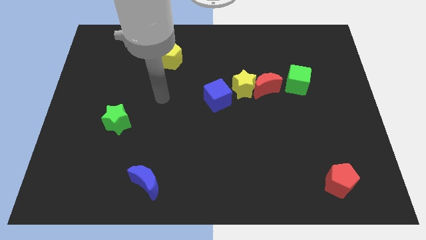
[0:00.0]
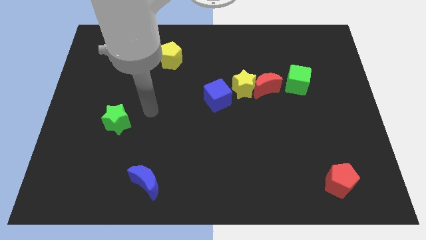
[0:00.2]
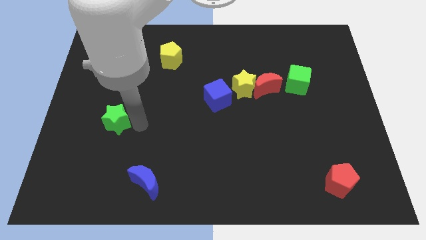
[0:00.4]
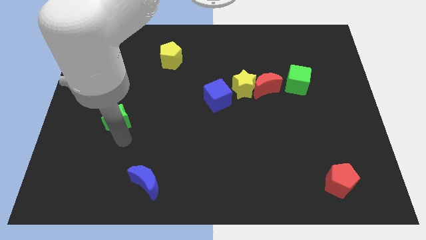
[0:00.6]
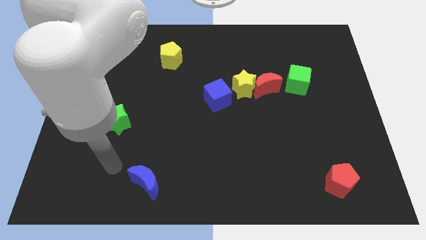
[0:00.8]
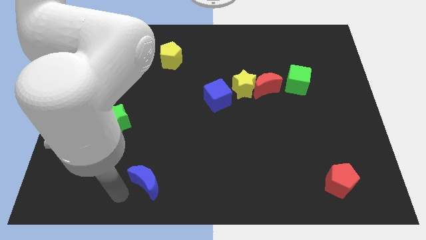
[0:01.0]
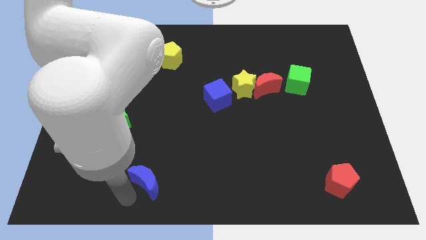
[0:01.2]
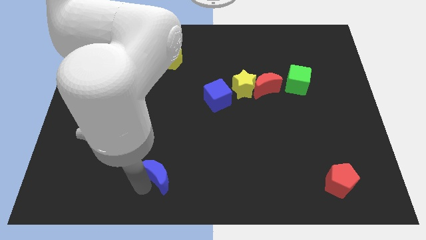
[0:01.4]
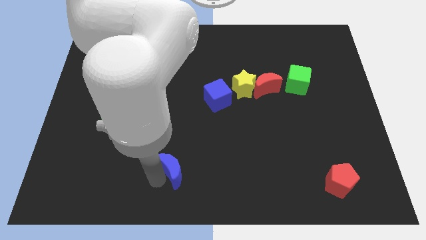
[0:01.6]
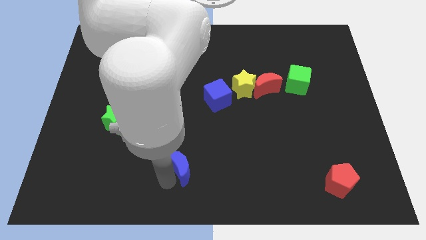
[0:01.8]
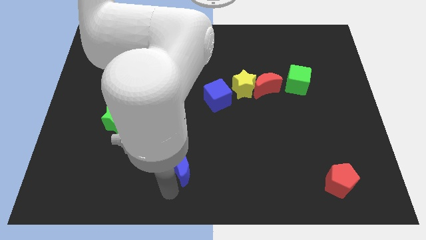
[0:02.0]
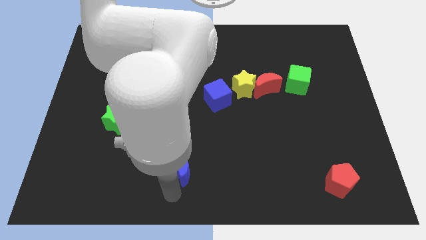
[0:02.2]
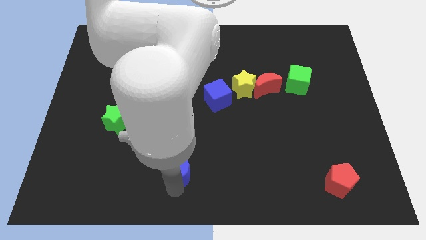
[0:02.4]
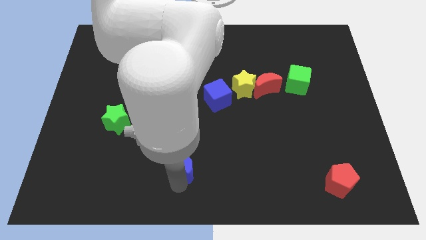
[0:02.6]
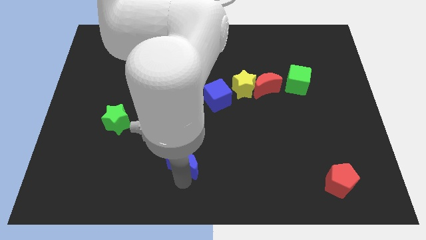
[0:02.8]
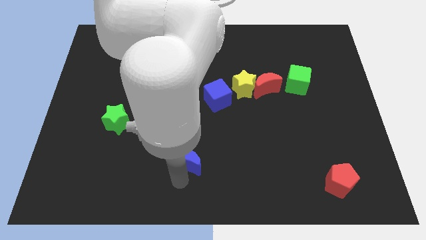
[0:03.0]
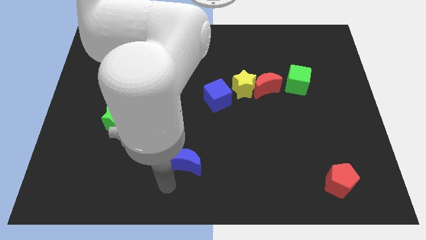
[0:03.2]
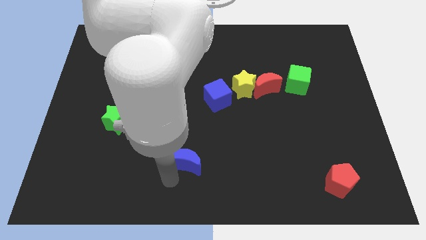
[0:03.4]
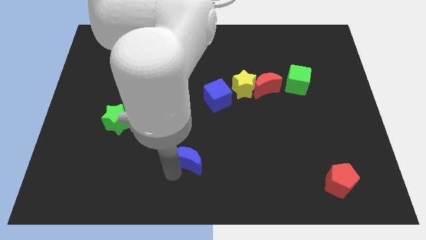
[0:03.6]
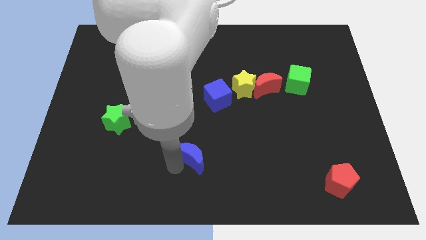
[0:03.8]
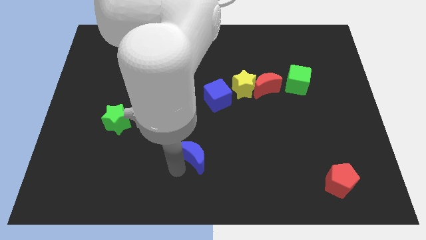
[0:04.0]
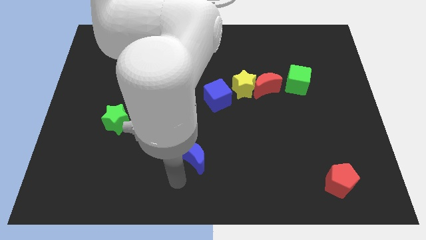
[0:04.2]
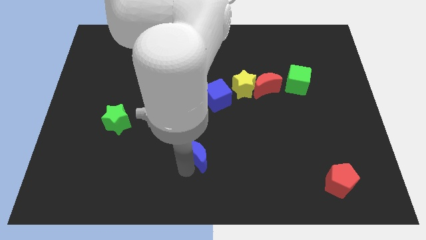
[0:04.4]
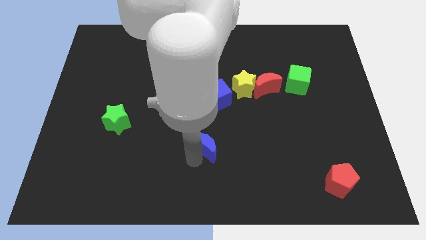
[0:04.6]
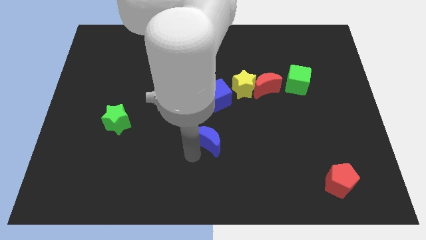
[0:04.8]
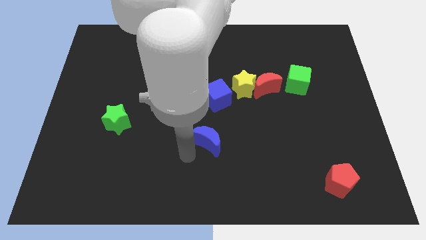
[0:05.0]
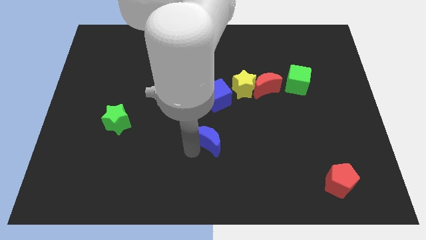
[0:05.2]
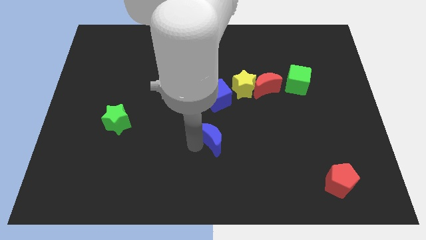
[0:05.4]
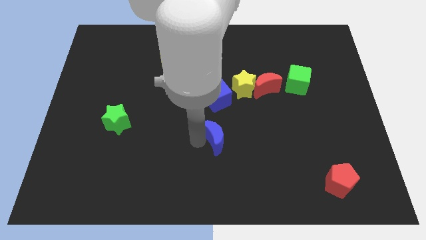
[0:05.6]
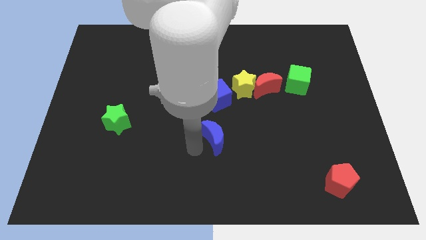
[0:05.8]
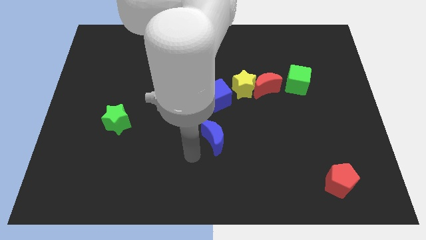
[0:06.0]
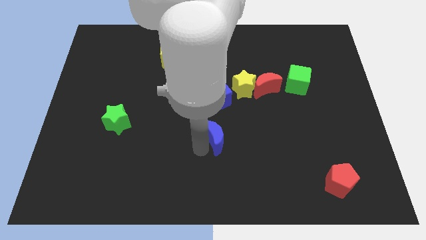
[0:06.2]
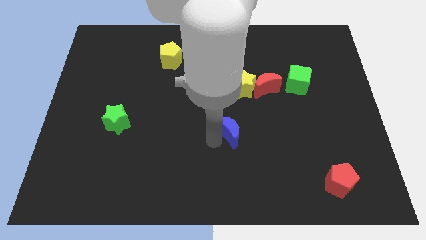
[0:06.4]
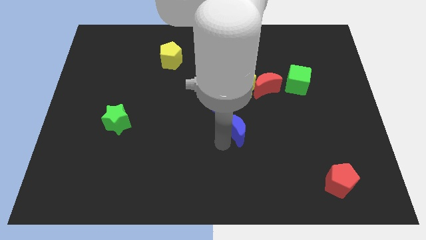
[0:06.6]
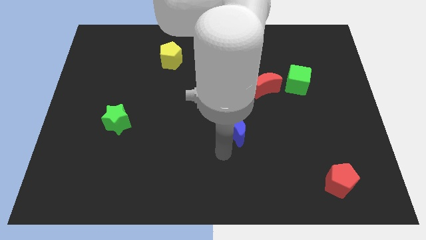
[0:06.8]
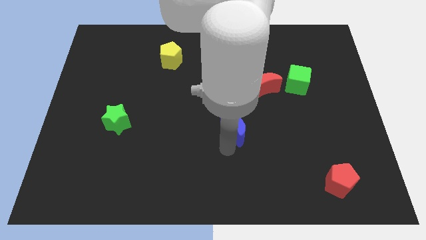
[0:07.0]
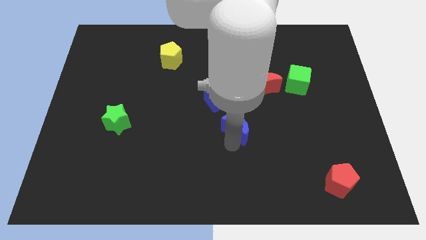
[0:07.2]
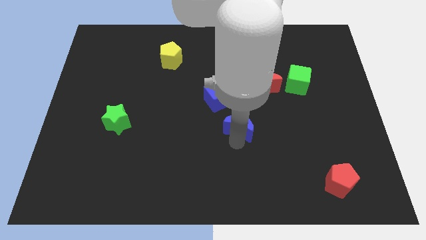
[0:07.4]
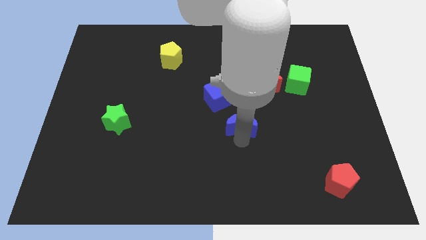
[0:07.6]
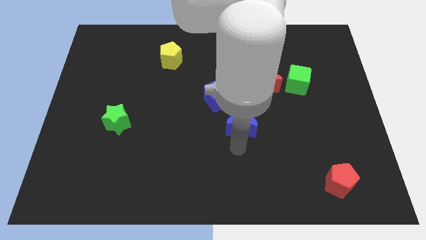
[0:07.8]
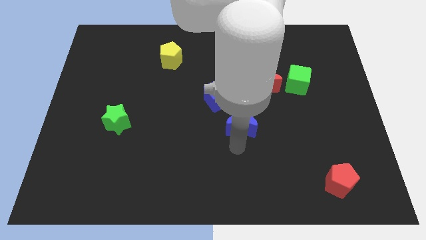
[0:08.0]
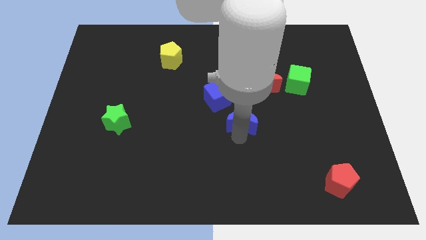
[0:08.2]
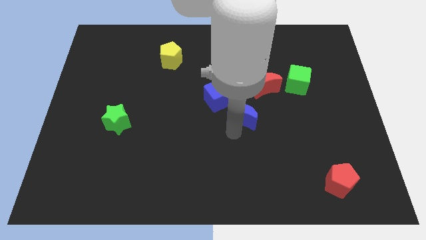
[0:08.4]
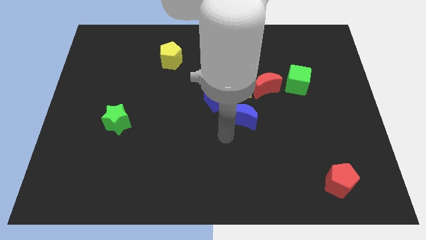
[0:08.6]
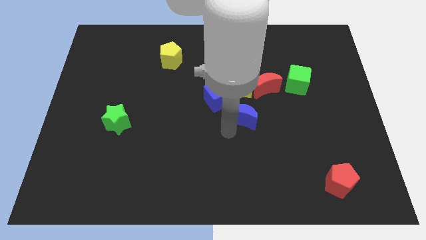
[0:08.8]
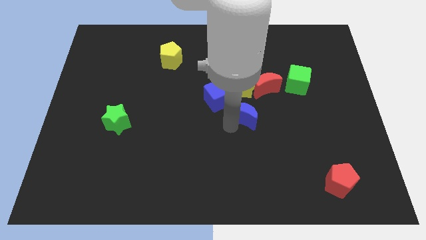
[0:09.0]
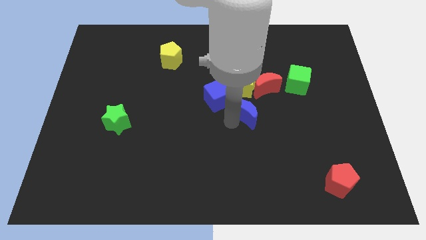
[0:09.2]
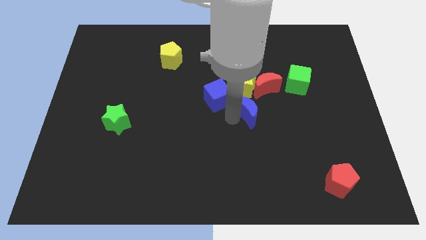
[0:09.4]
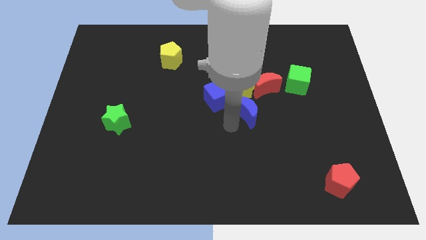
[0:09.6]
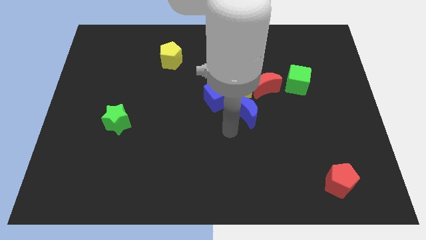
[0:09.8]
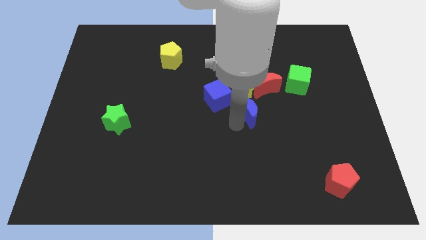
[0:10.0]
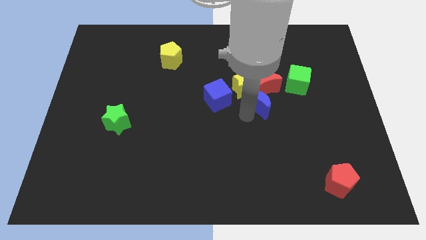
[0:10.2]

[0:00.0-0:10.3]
push the blue moon close to the red moon

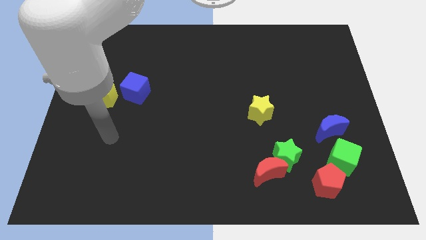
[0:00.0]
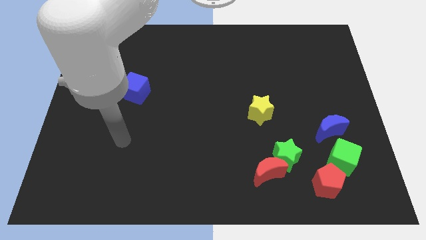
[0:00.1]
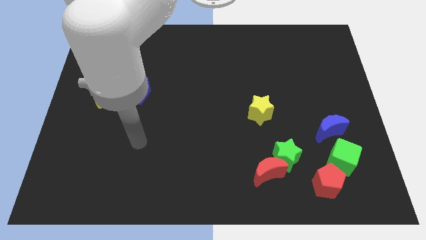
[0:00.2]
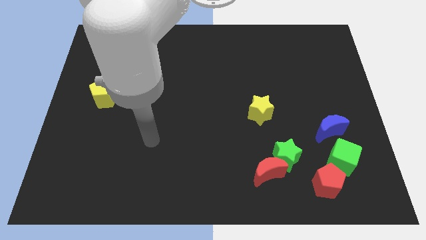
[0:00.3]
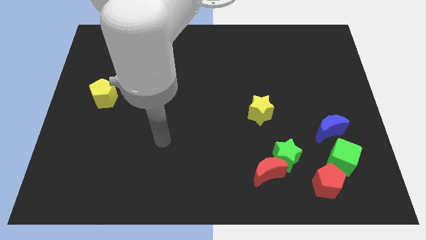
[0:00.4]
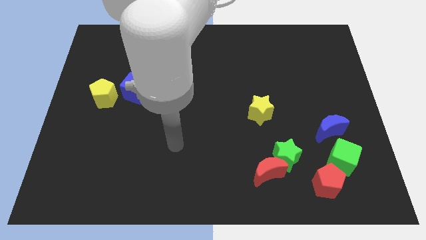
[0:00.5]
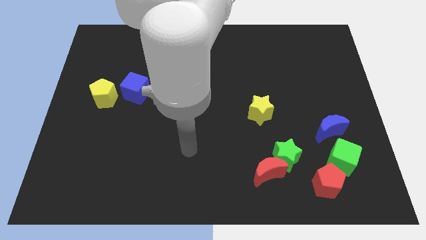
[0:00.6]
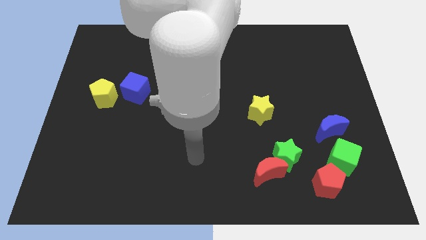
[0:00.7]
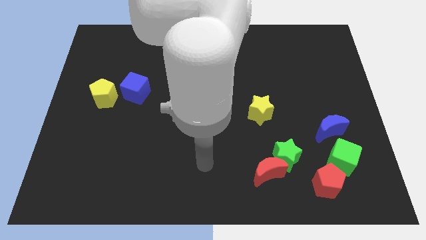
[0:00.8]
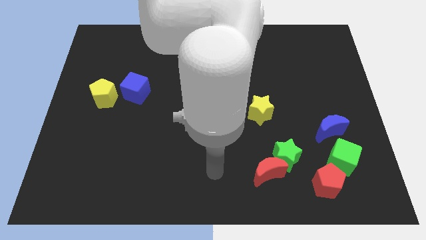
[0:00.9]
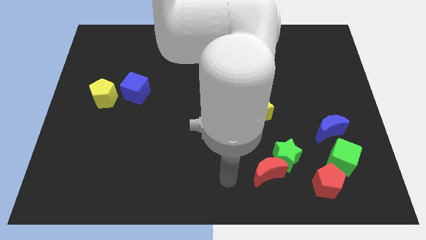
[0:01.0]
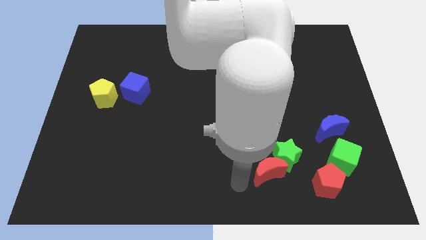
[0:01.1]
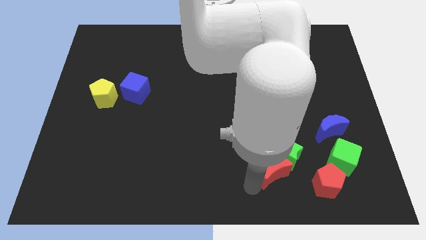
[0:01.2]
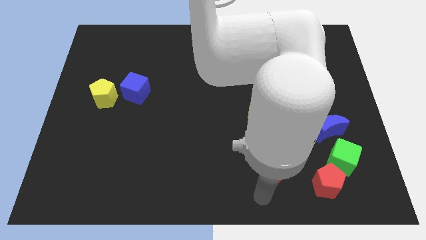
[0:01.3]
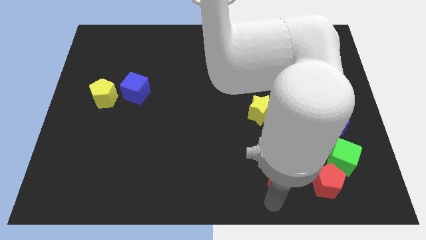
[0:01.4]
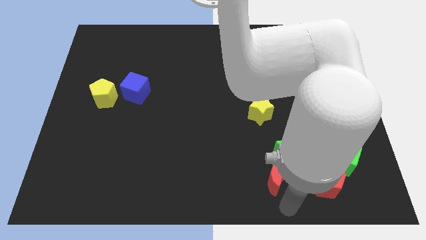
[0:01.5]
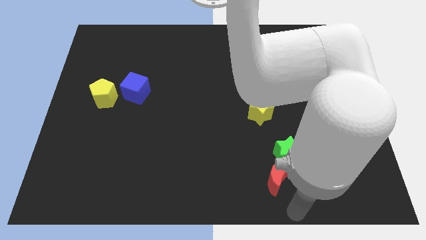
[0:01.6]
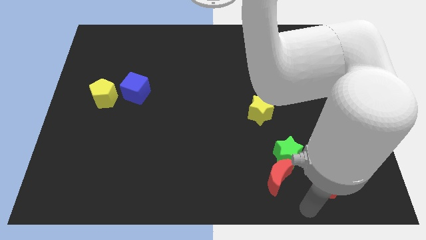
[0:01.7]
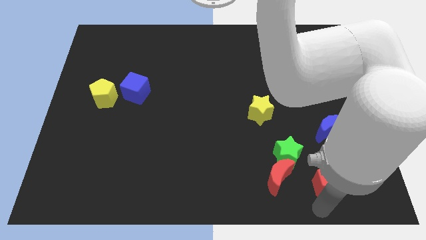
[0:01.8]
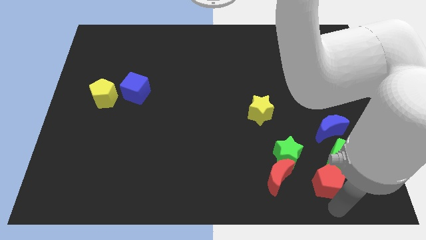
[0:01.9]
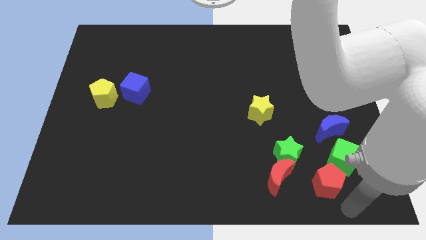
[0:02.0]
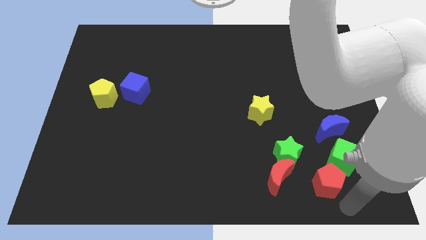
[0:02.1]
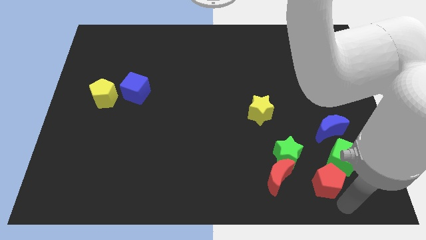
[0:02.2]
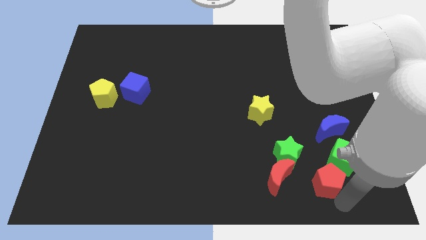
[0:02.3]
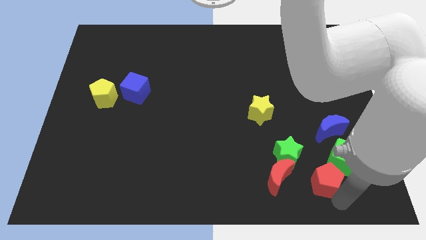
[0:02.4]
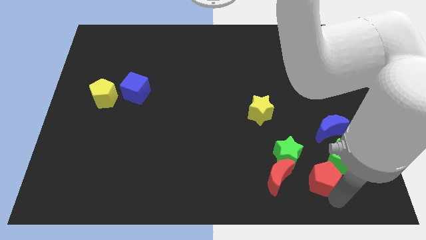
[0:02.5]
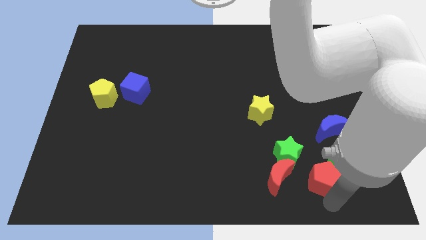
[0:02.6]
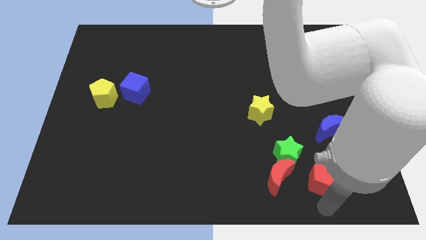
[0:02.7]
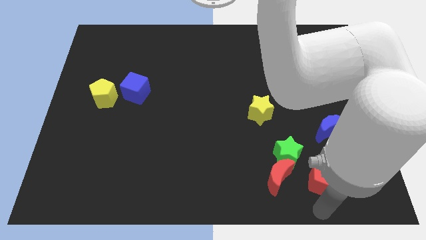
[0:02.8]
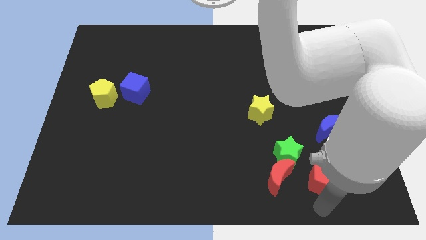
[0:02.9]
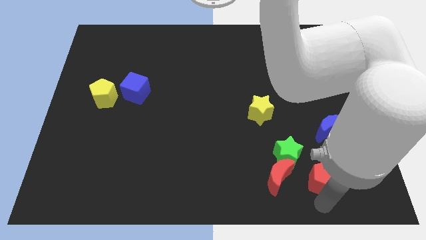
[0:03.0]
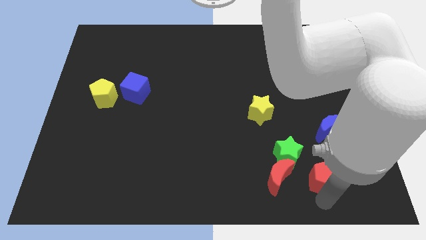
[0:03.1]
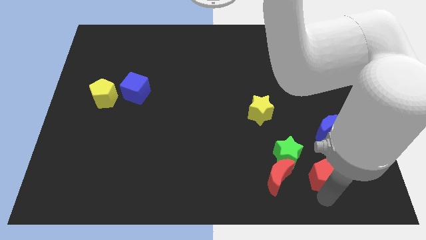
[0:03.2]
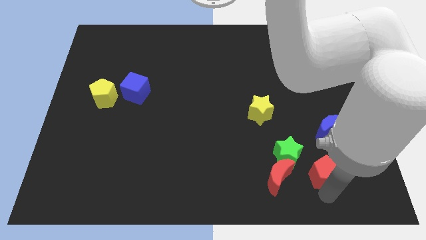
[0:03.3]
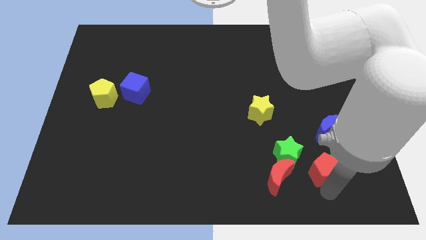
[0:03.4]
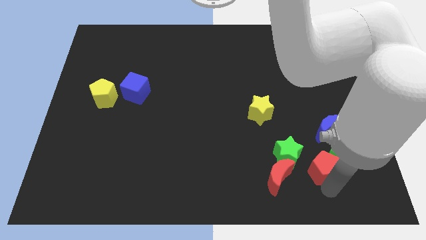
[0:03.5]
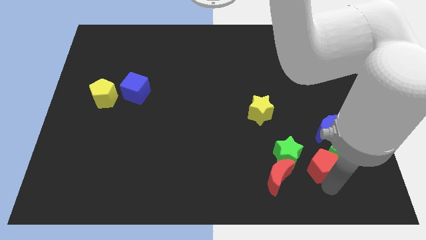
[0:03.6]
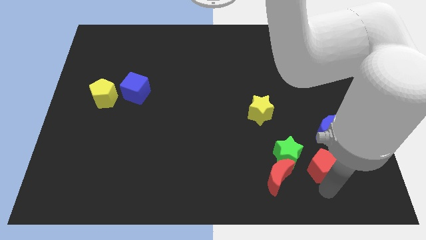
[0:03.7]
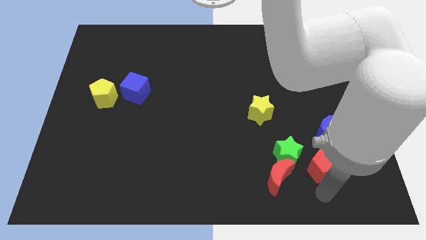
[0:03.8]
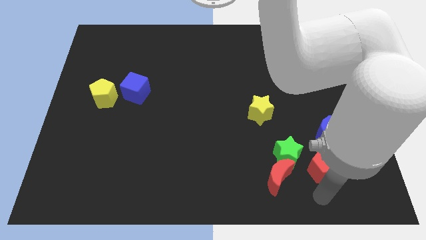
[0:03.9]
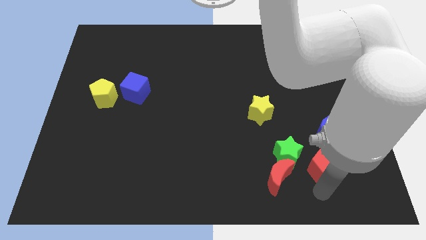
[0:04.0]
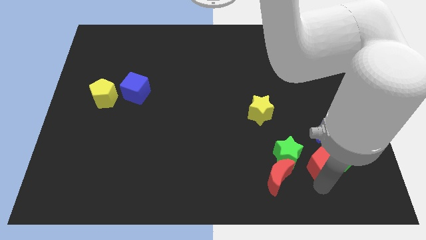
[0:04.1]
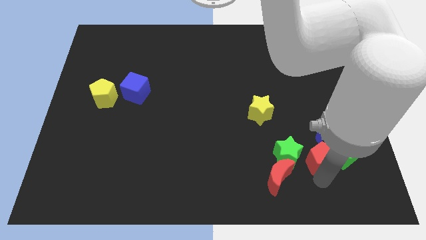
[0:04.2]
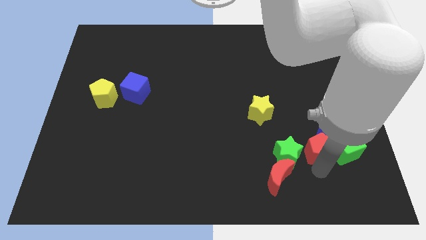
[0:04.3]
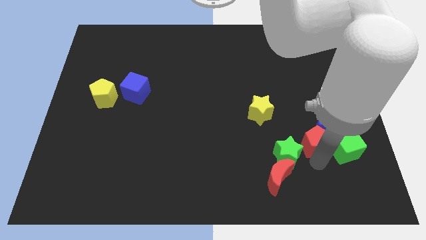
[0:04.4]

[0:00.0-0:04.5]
slide the red pentagon to the blue moon
